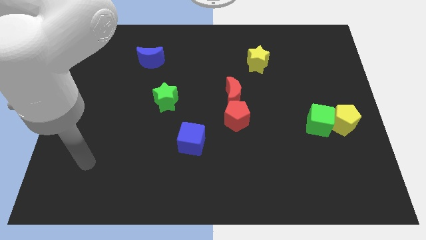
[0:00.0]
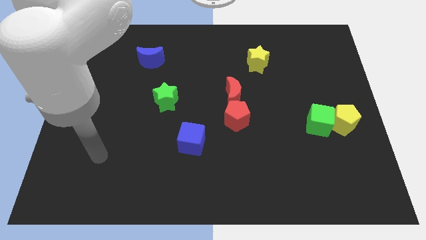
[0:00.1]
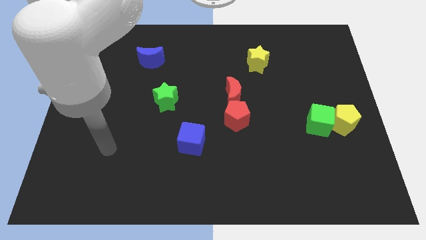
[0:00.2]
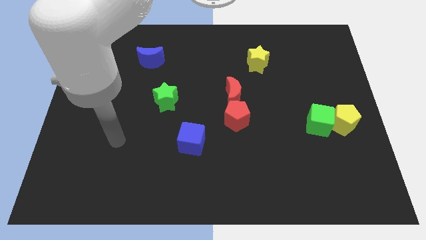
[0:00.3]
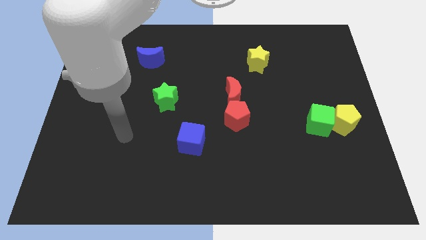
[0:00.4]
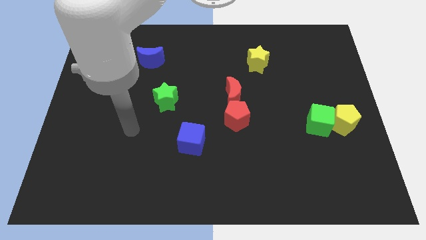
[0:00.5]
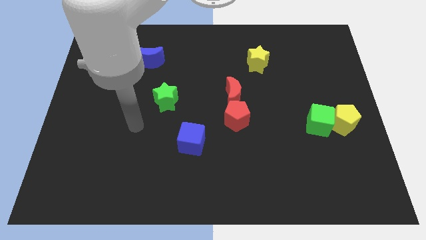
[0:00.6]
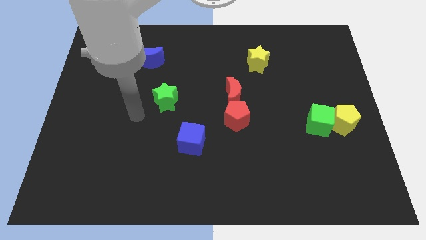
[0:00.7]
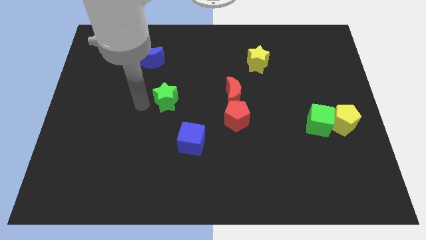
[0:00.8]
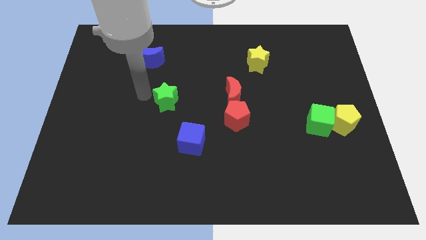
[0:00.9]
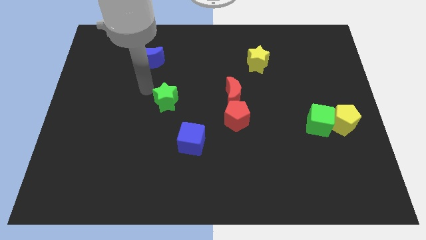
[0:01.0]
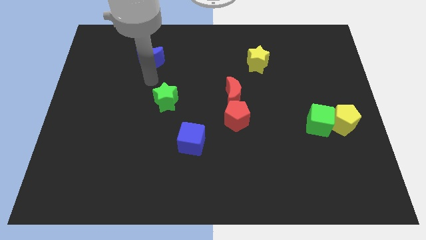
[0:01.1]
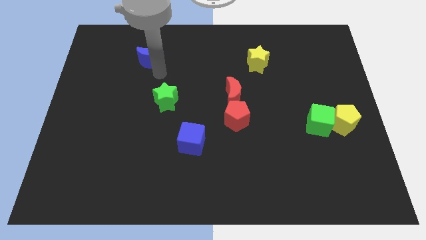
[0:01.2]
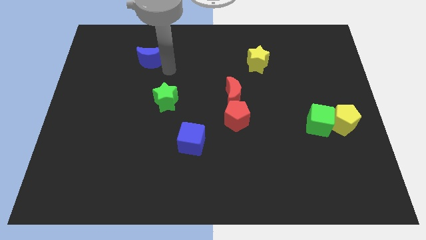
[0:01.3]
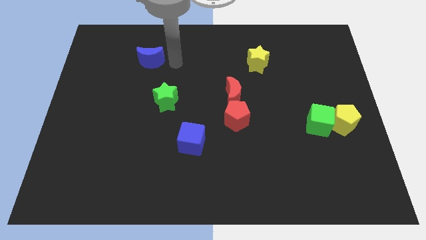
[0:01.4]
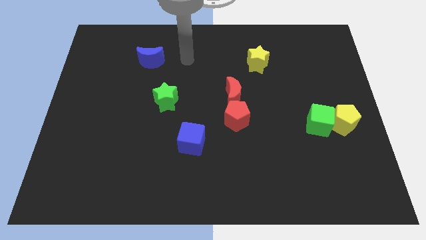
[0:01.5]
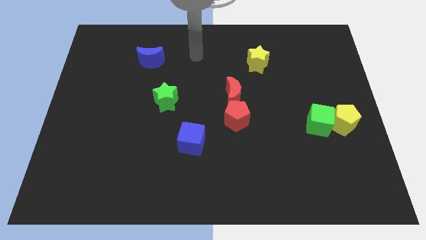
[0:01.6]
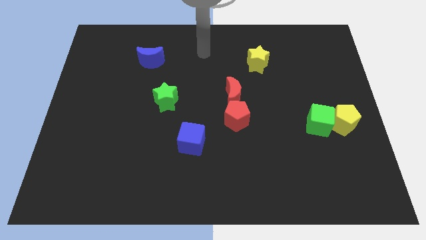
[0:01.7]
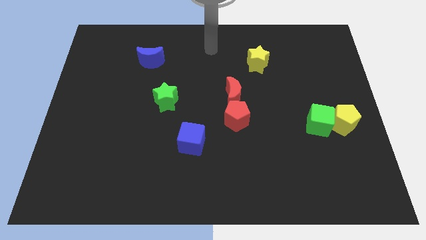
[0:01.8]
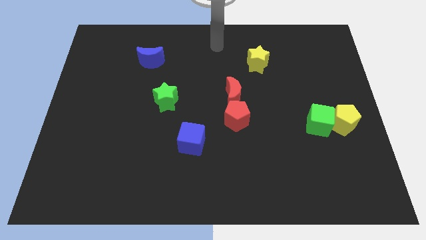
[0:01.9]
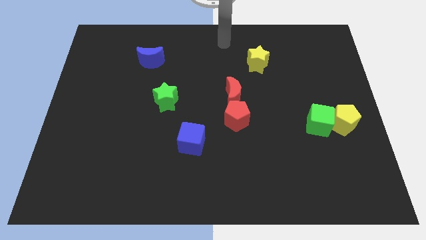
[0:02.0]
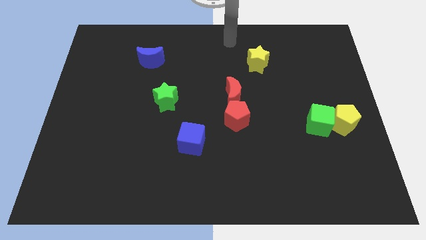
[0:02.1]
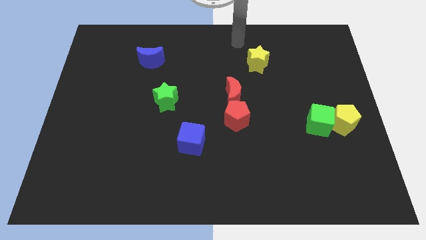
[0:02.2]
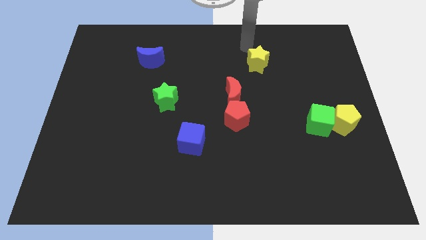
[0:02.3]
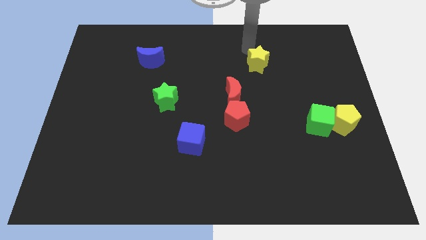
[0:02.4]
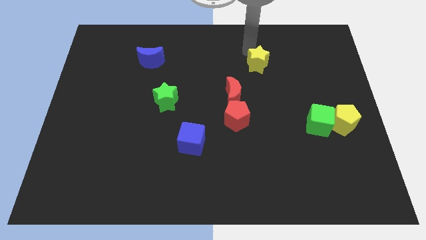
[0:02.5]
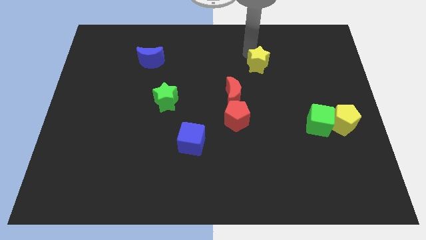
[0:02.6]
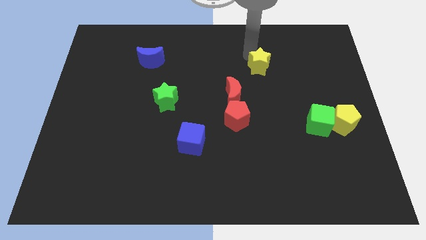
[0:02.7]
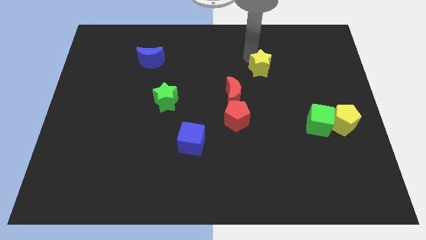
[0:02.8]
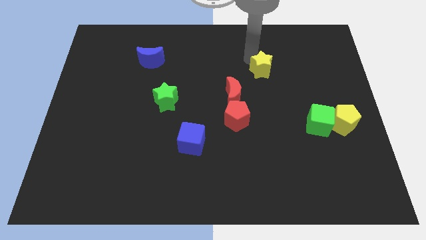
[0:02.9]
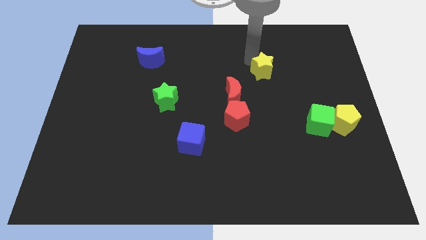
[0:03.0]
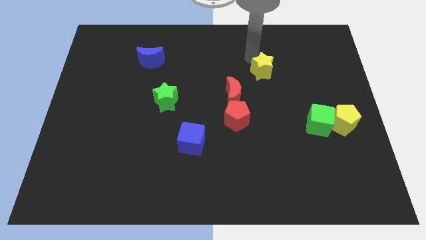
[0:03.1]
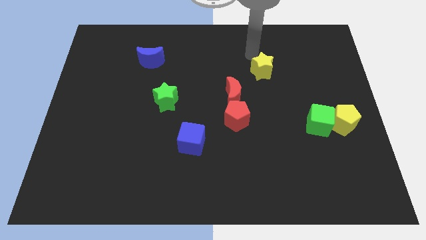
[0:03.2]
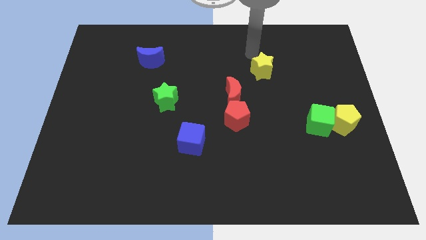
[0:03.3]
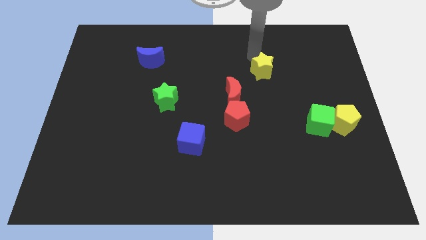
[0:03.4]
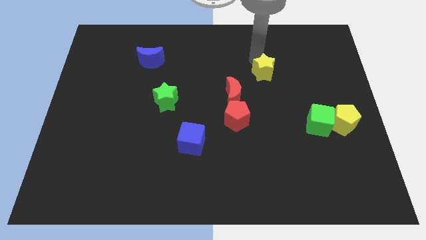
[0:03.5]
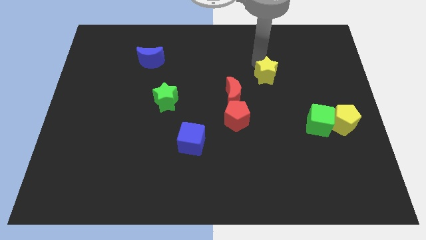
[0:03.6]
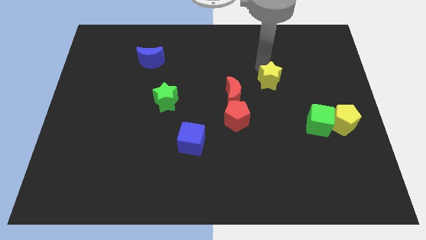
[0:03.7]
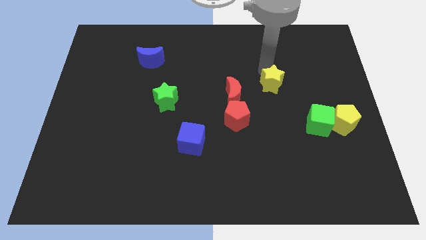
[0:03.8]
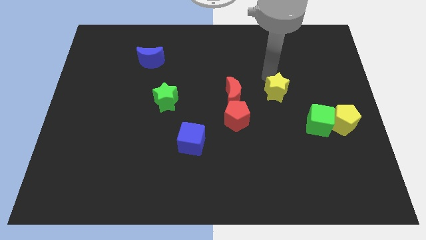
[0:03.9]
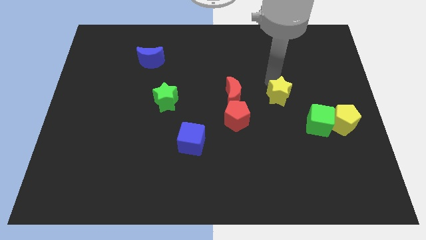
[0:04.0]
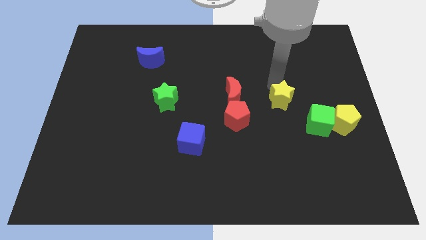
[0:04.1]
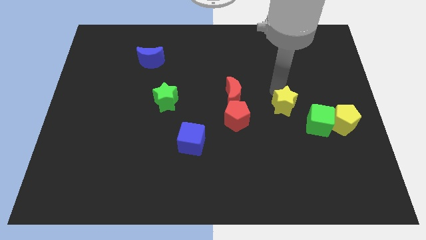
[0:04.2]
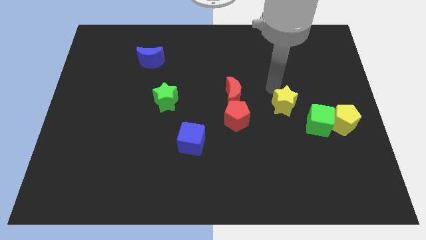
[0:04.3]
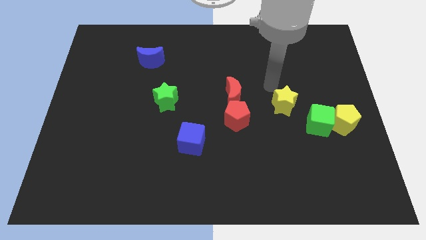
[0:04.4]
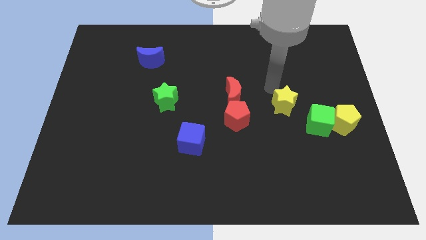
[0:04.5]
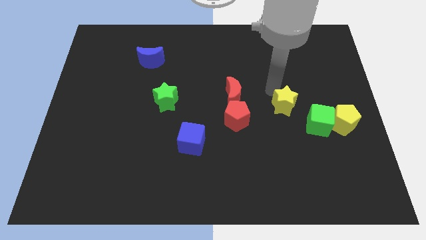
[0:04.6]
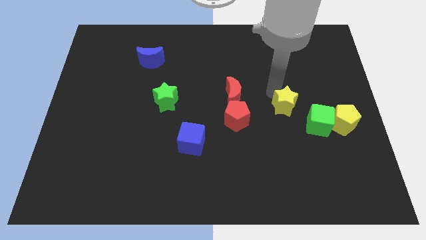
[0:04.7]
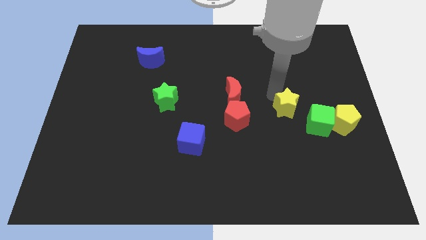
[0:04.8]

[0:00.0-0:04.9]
push the yellow star just left of the yellow pentagon

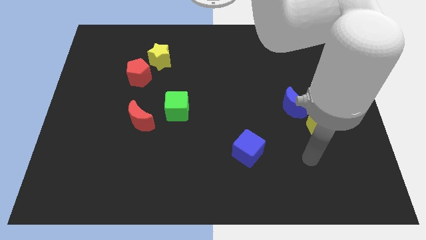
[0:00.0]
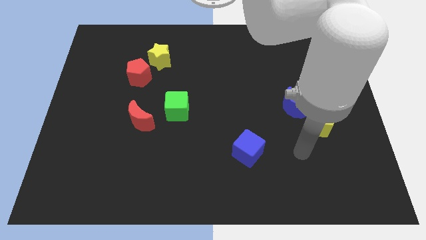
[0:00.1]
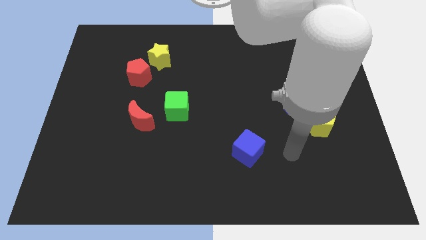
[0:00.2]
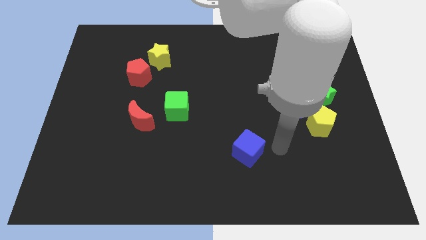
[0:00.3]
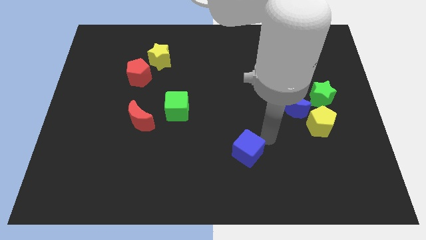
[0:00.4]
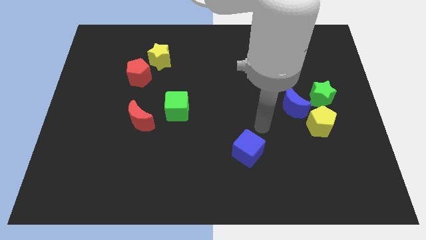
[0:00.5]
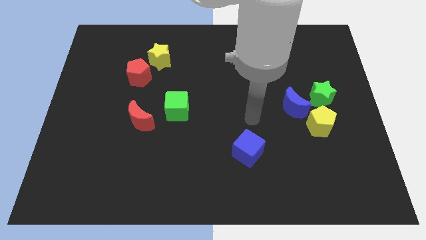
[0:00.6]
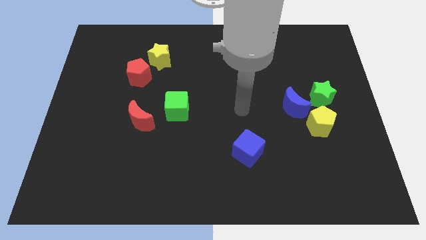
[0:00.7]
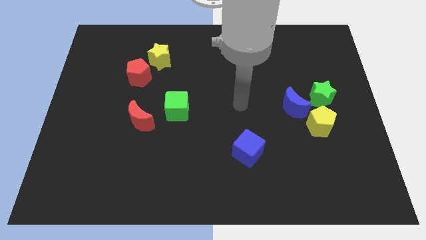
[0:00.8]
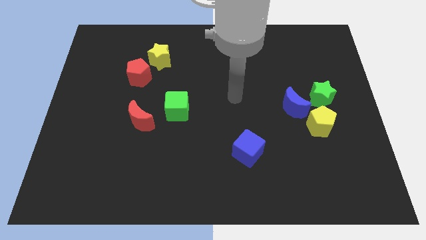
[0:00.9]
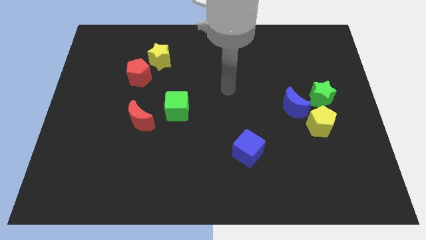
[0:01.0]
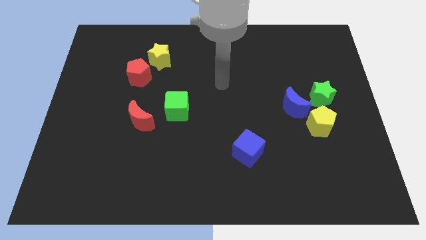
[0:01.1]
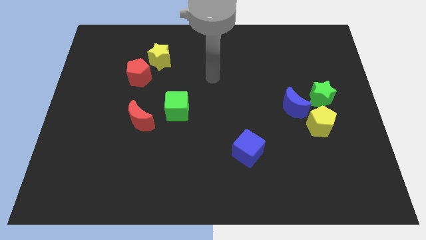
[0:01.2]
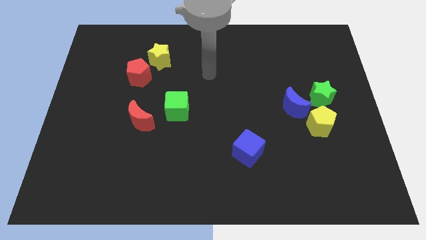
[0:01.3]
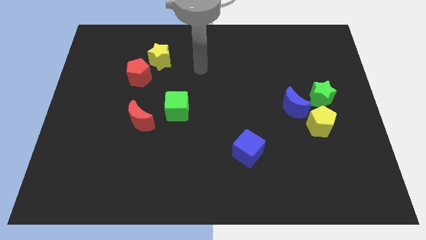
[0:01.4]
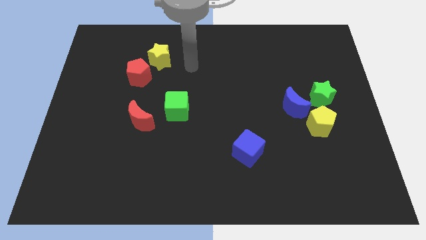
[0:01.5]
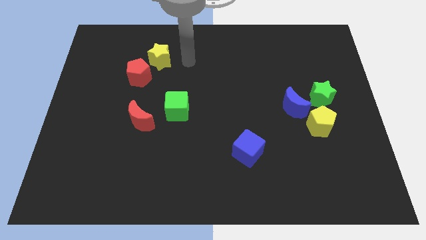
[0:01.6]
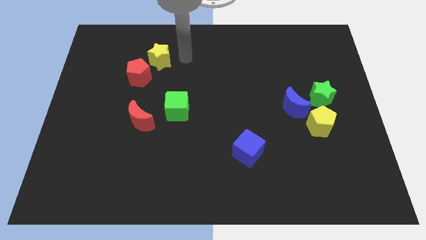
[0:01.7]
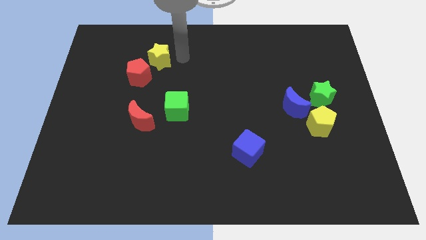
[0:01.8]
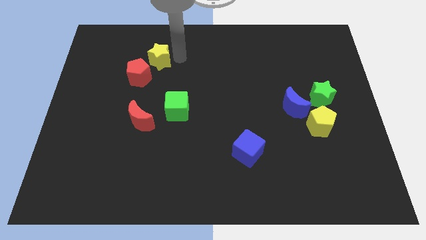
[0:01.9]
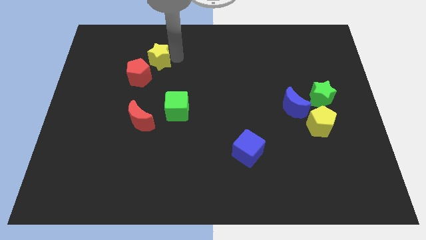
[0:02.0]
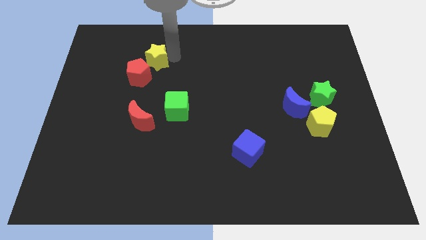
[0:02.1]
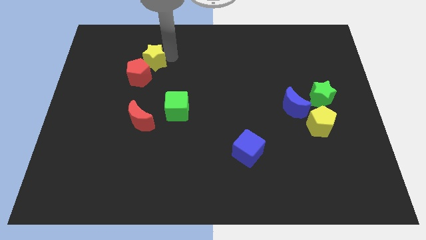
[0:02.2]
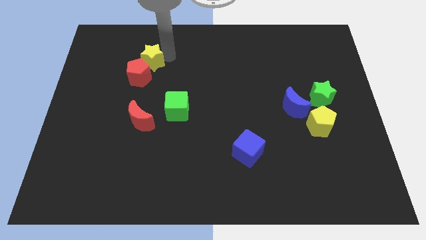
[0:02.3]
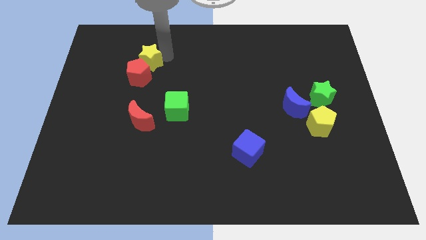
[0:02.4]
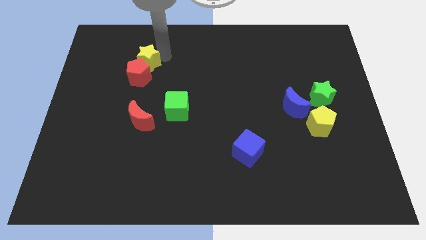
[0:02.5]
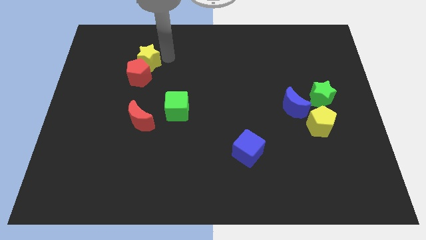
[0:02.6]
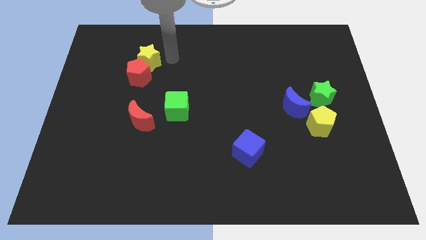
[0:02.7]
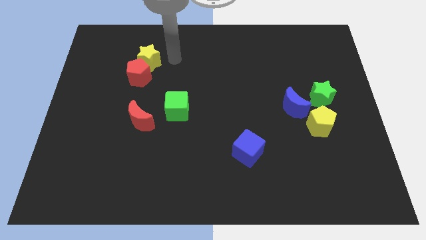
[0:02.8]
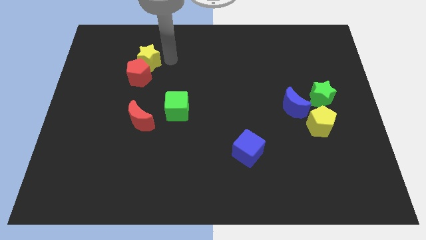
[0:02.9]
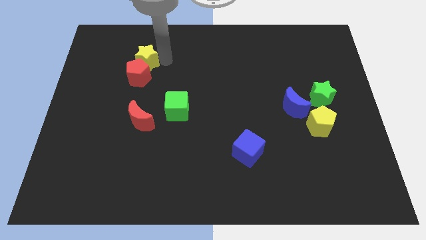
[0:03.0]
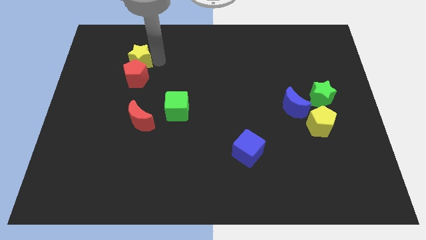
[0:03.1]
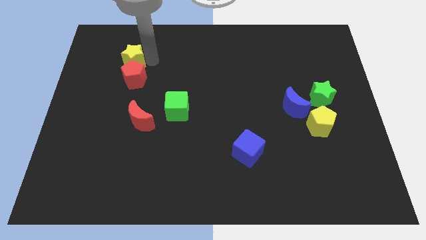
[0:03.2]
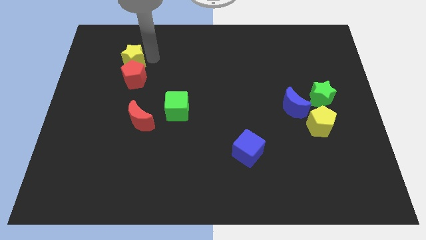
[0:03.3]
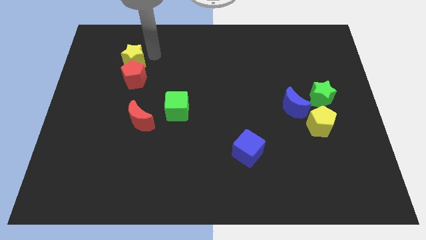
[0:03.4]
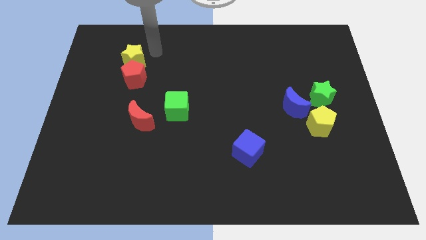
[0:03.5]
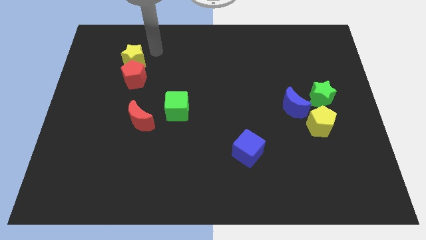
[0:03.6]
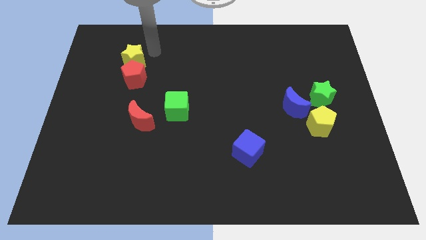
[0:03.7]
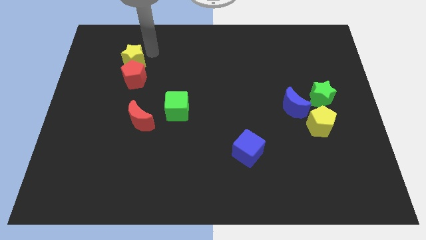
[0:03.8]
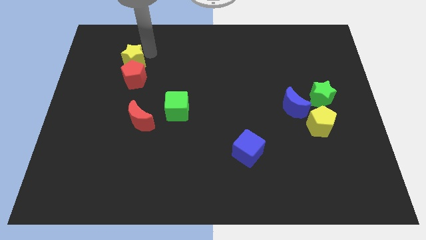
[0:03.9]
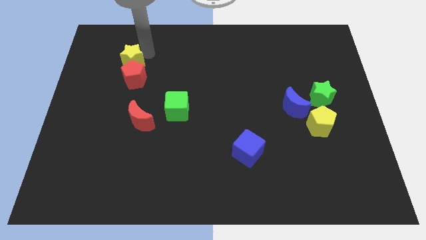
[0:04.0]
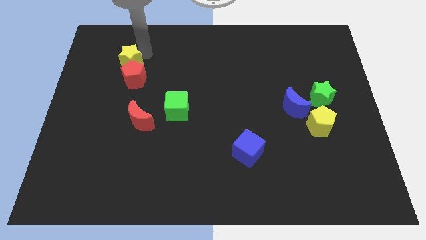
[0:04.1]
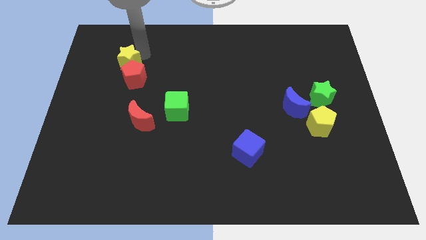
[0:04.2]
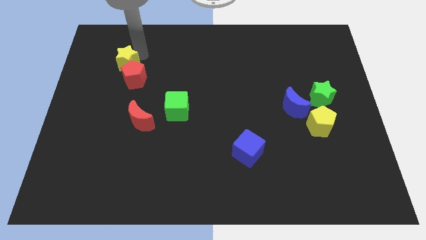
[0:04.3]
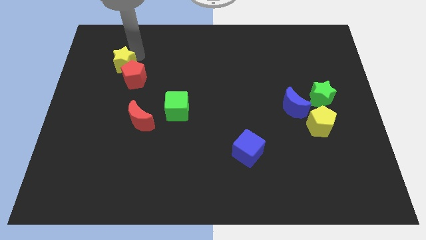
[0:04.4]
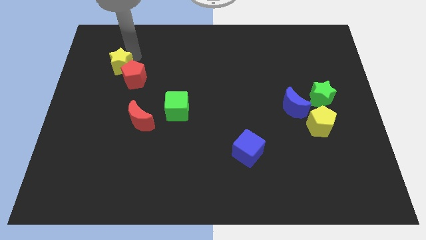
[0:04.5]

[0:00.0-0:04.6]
move the yellow star to the left of the red pentagon
